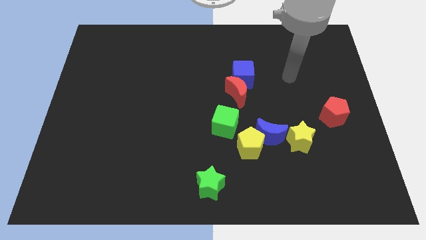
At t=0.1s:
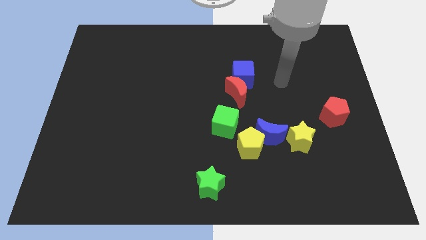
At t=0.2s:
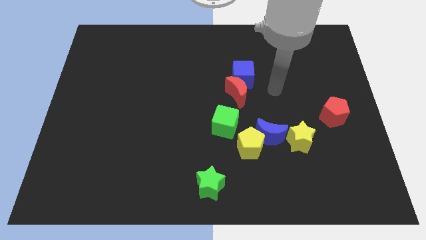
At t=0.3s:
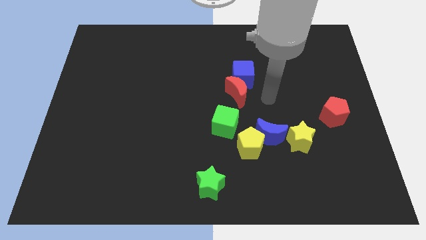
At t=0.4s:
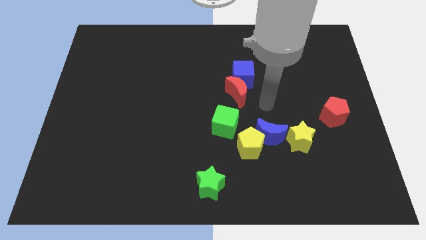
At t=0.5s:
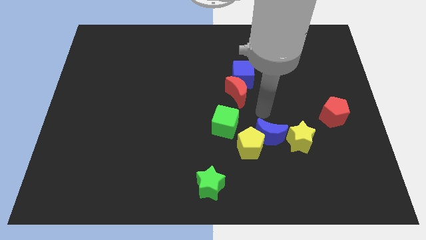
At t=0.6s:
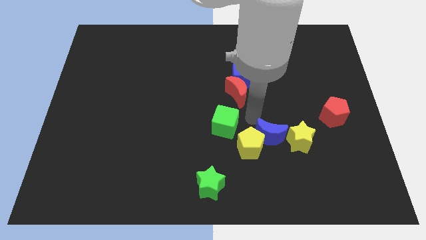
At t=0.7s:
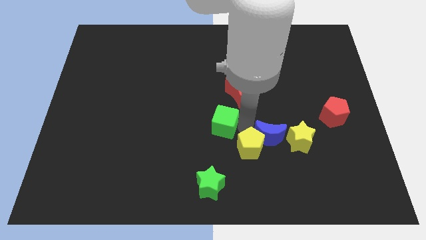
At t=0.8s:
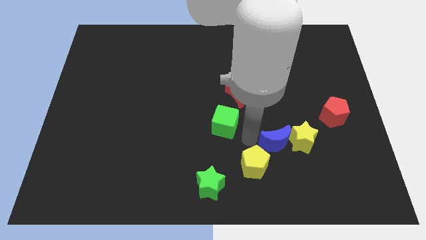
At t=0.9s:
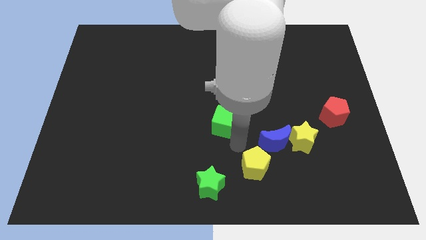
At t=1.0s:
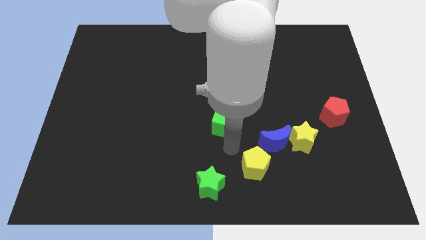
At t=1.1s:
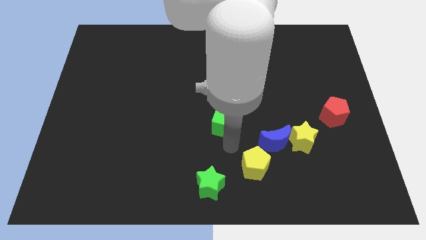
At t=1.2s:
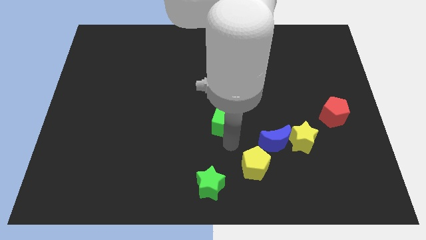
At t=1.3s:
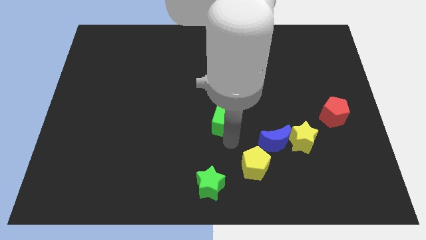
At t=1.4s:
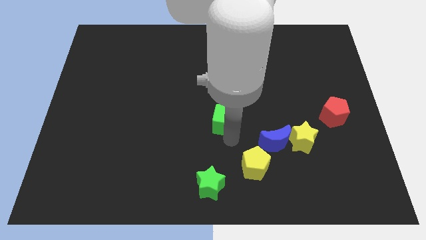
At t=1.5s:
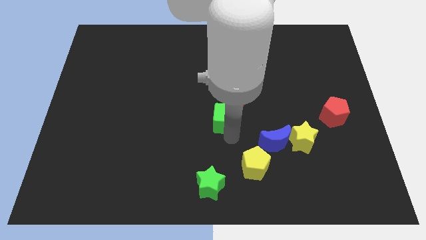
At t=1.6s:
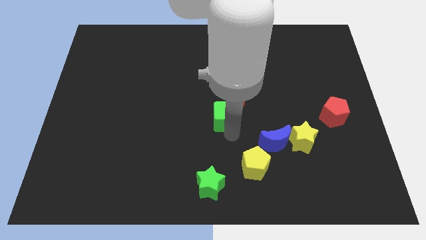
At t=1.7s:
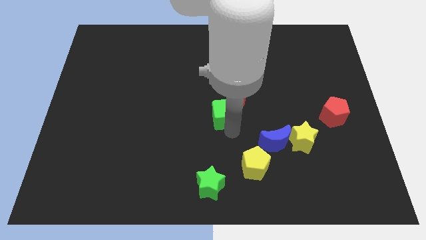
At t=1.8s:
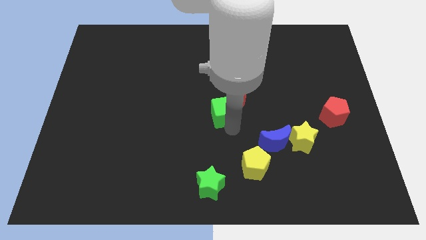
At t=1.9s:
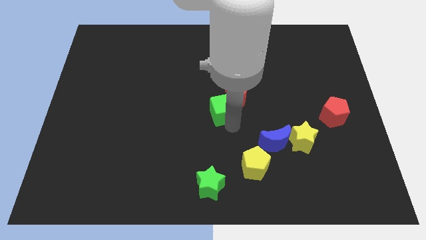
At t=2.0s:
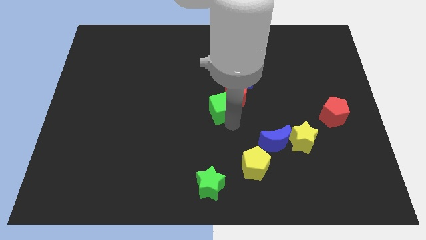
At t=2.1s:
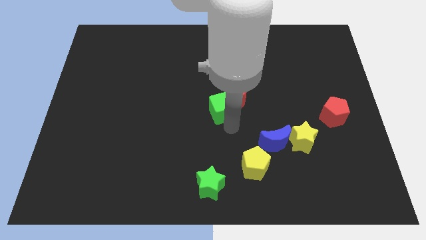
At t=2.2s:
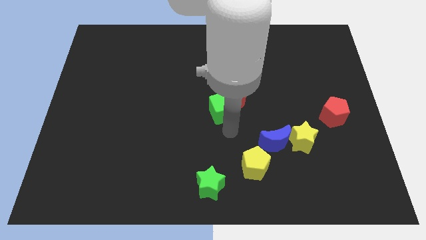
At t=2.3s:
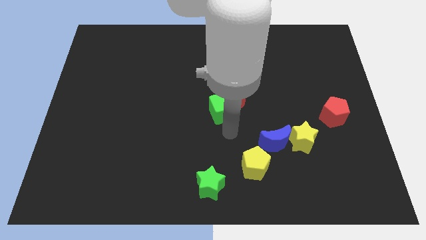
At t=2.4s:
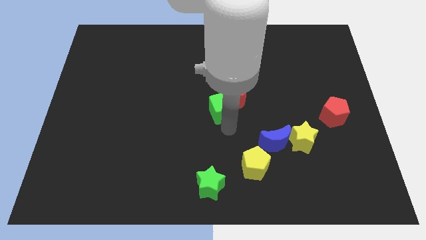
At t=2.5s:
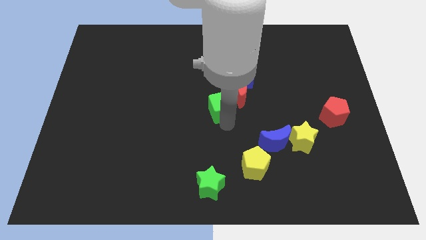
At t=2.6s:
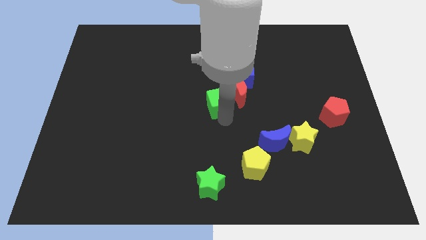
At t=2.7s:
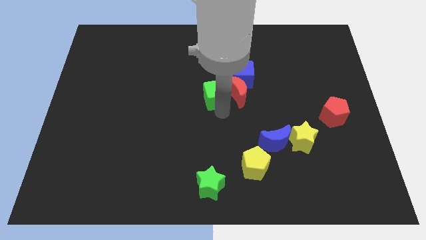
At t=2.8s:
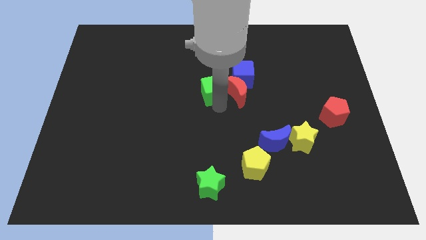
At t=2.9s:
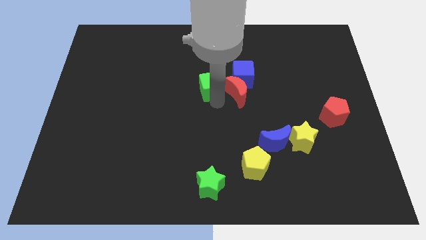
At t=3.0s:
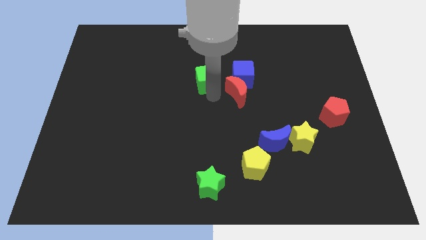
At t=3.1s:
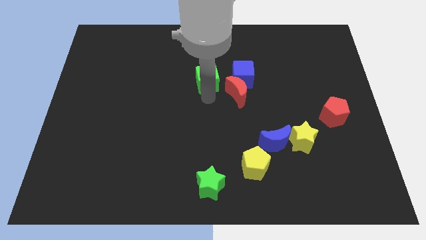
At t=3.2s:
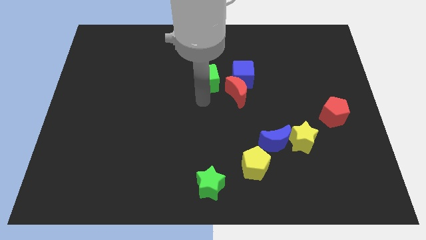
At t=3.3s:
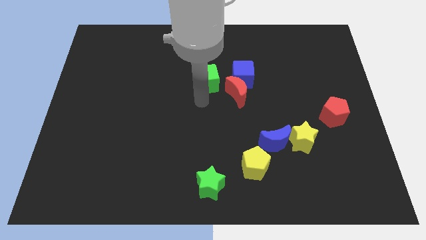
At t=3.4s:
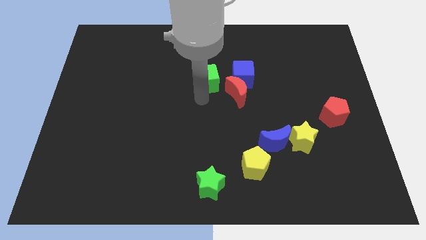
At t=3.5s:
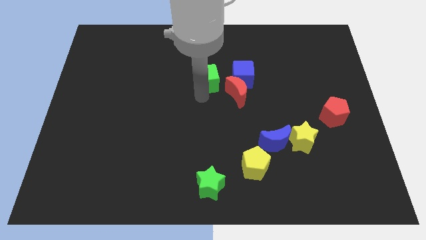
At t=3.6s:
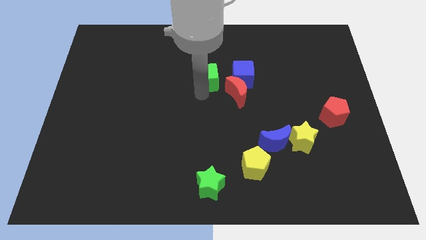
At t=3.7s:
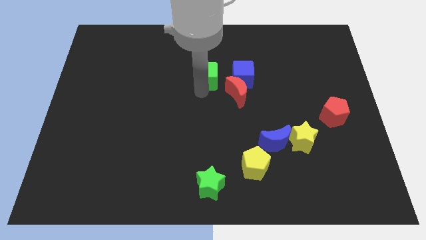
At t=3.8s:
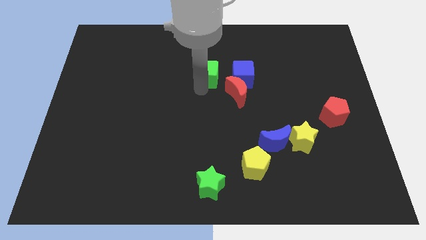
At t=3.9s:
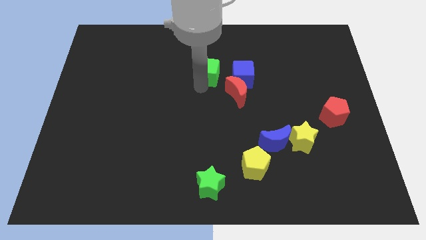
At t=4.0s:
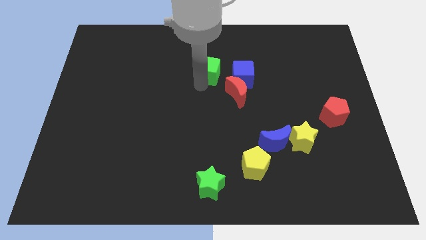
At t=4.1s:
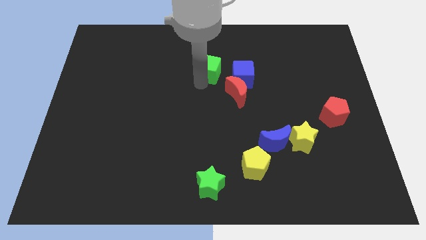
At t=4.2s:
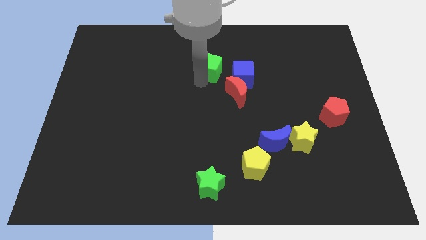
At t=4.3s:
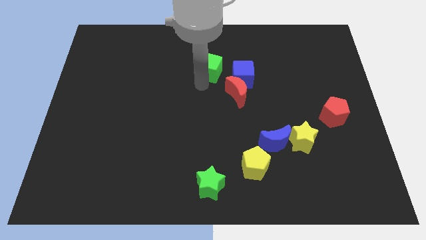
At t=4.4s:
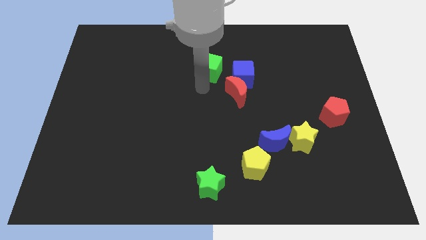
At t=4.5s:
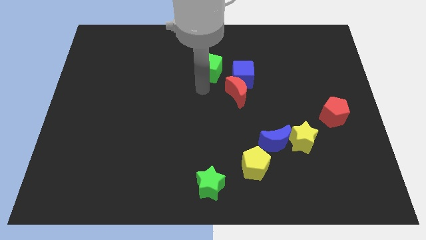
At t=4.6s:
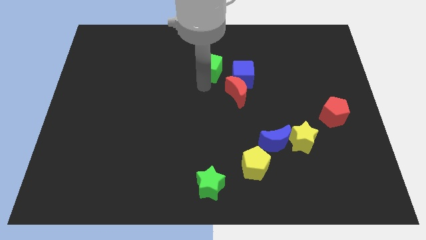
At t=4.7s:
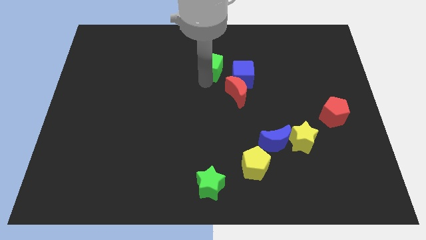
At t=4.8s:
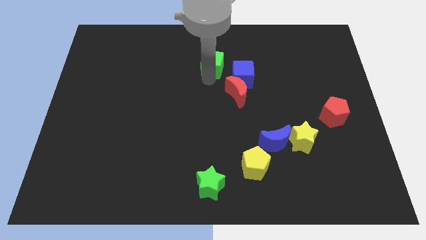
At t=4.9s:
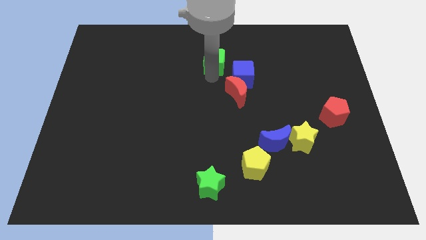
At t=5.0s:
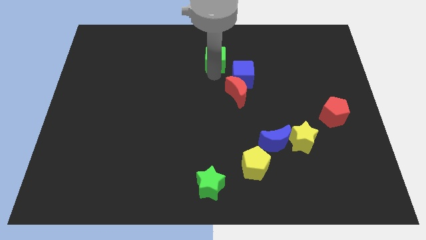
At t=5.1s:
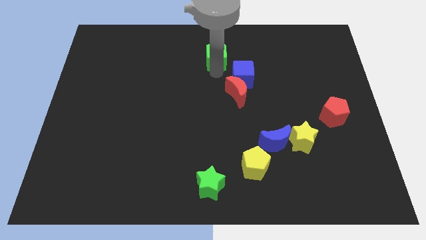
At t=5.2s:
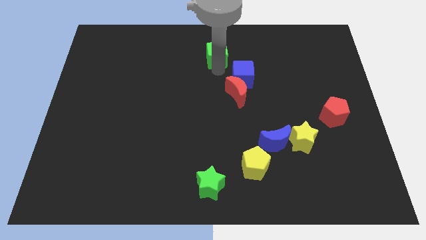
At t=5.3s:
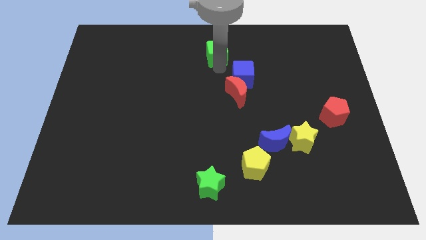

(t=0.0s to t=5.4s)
put the green cube to the top side

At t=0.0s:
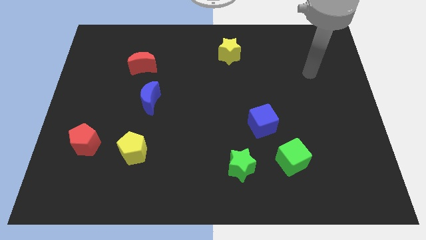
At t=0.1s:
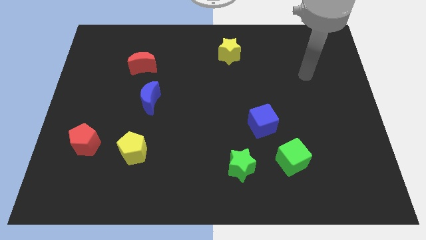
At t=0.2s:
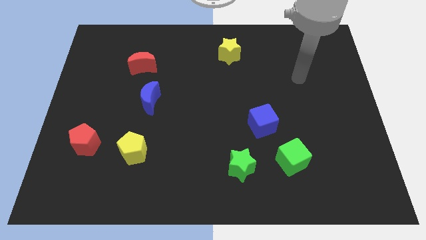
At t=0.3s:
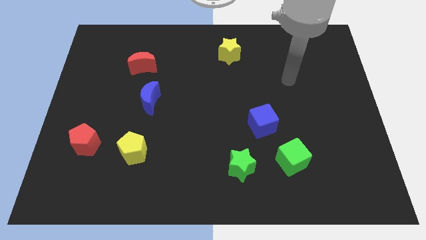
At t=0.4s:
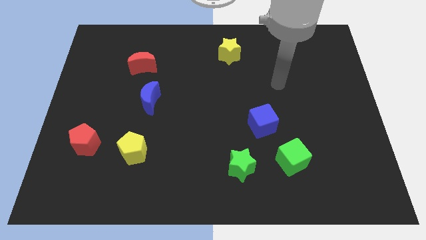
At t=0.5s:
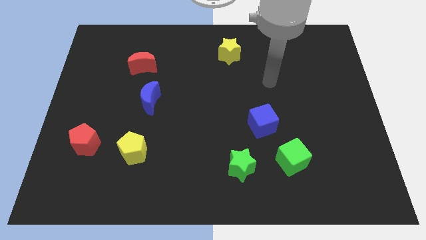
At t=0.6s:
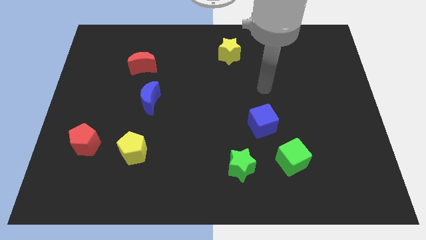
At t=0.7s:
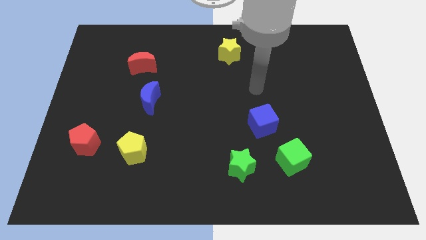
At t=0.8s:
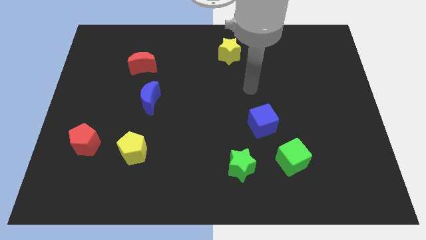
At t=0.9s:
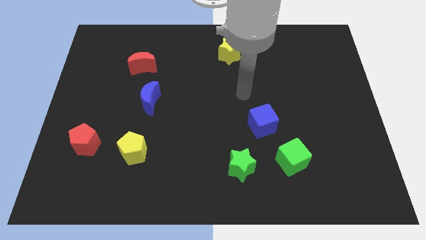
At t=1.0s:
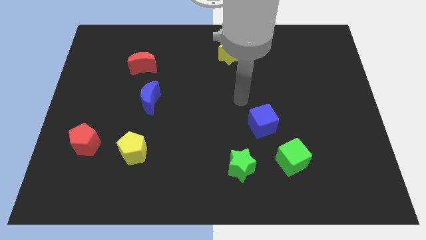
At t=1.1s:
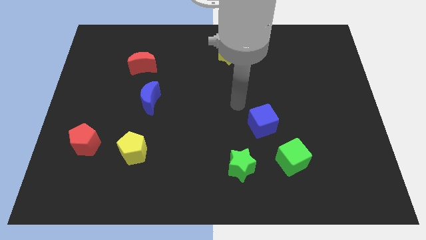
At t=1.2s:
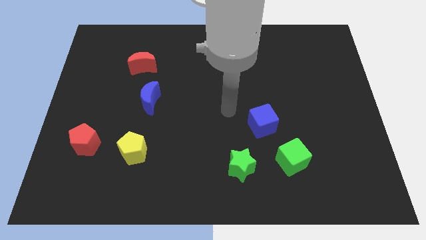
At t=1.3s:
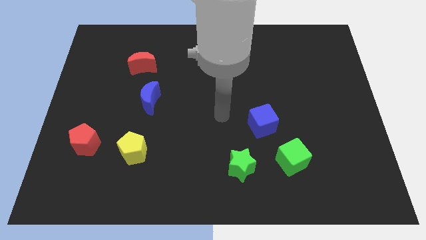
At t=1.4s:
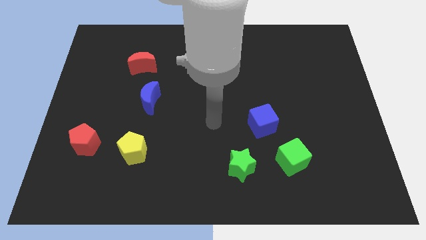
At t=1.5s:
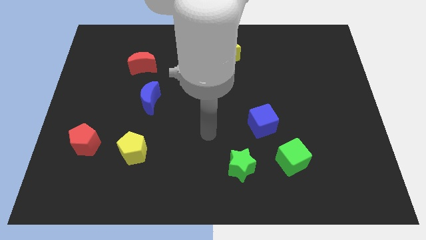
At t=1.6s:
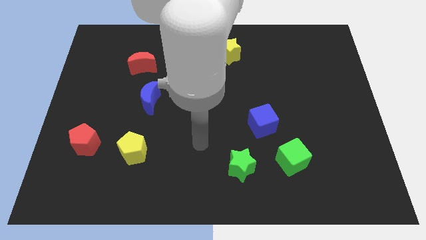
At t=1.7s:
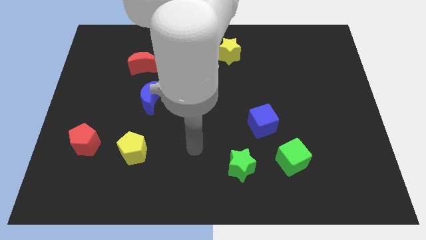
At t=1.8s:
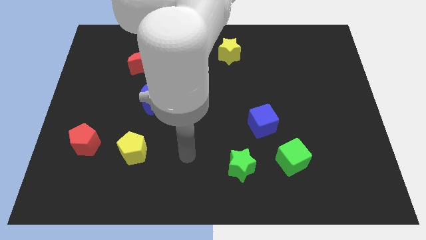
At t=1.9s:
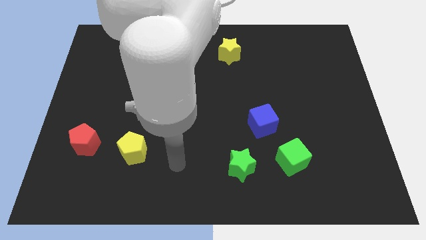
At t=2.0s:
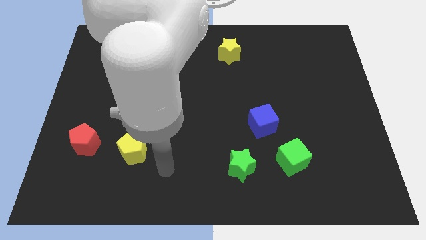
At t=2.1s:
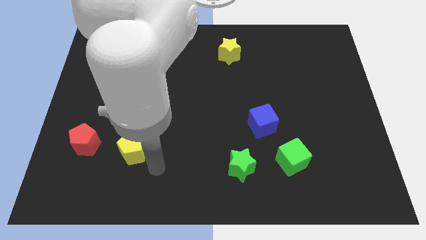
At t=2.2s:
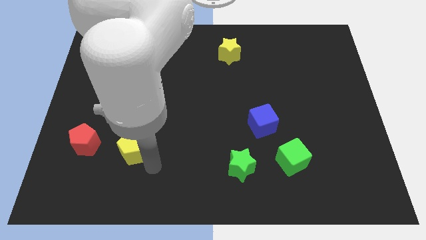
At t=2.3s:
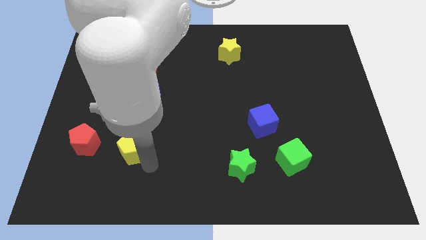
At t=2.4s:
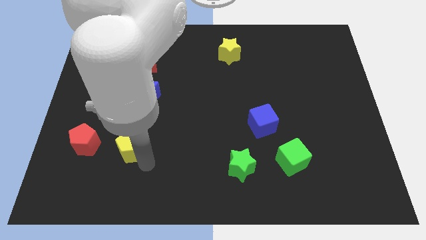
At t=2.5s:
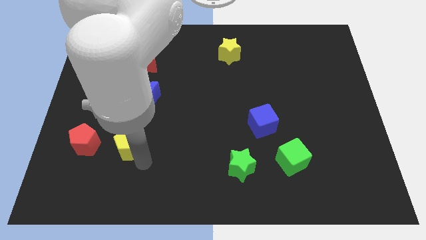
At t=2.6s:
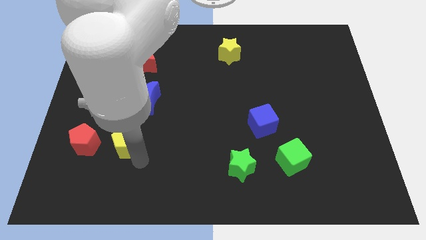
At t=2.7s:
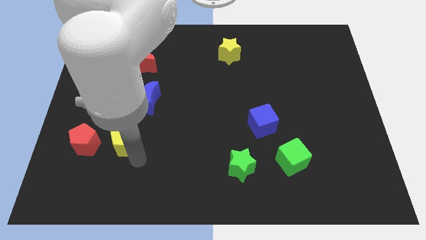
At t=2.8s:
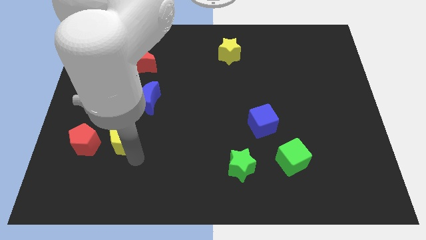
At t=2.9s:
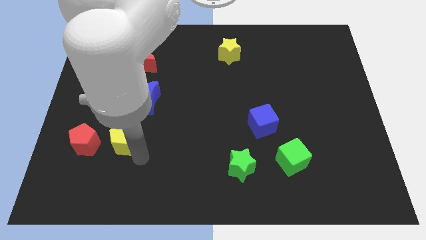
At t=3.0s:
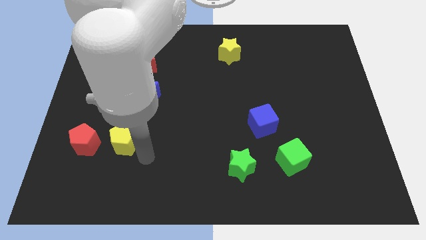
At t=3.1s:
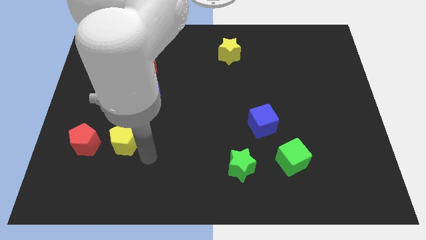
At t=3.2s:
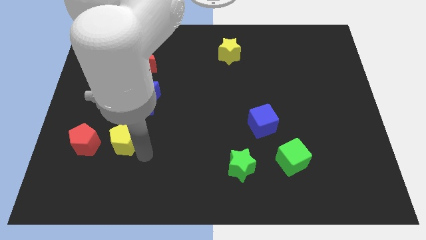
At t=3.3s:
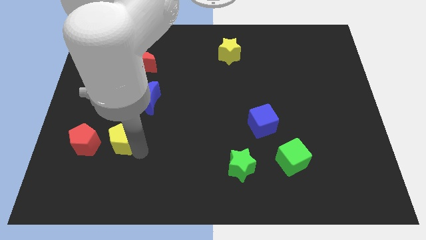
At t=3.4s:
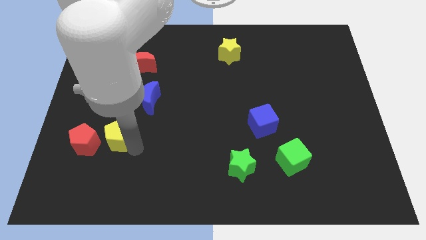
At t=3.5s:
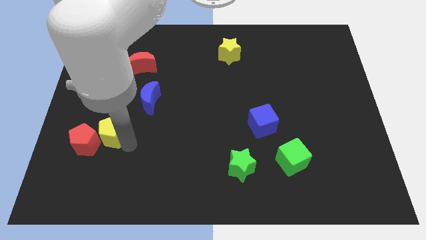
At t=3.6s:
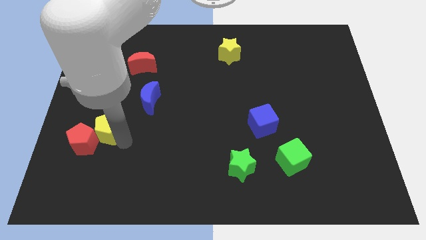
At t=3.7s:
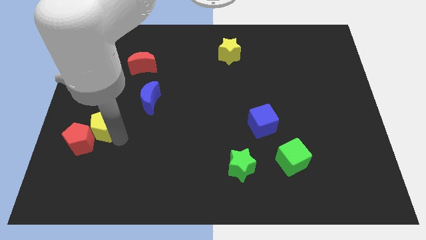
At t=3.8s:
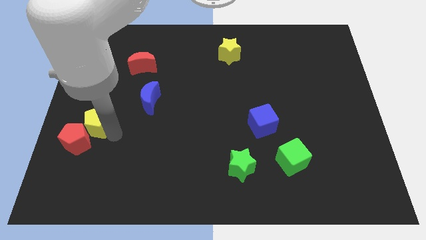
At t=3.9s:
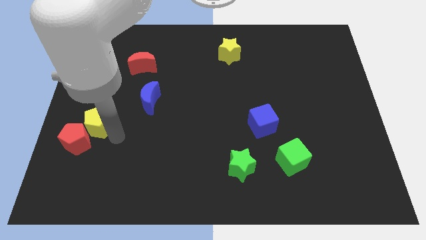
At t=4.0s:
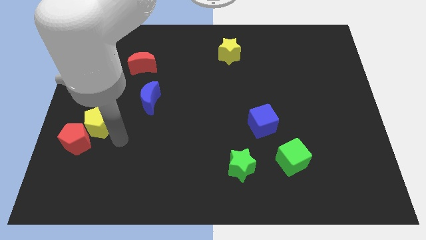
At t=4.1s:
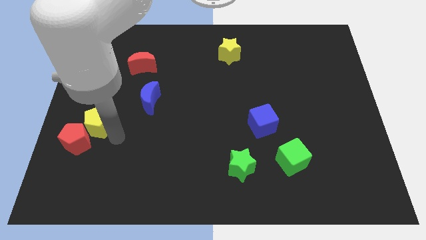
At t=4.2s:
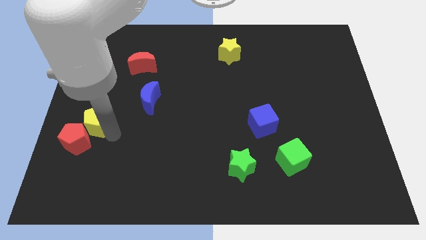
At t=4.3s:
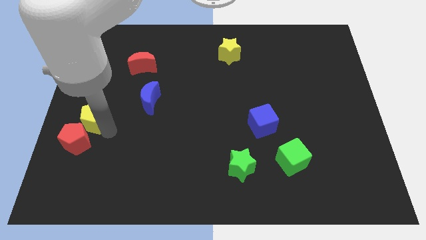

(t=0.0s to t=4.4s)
move the yellow pentagon to the left side
